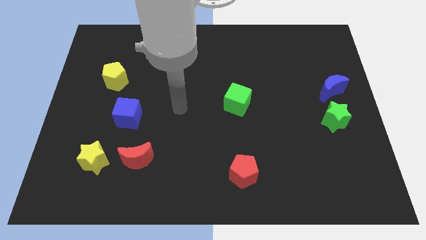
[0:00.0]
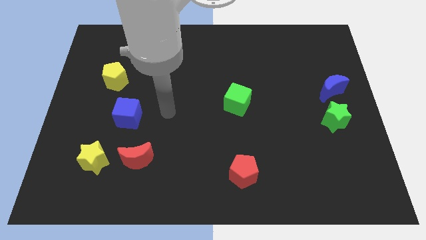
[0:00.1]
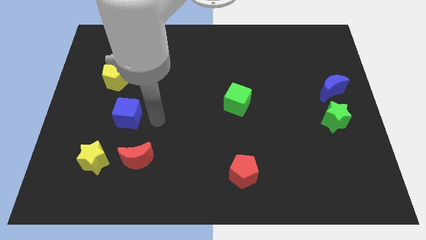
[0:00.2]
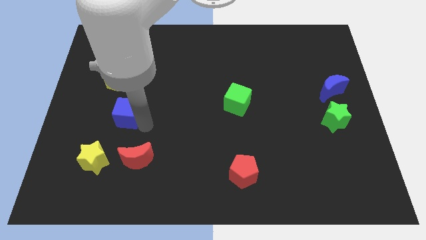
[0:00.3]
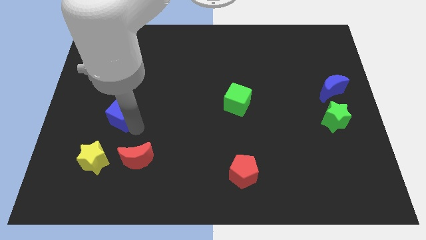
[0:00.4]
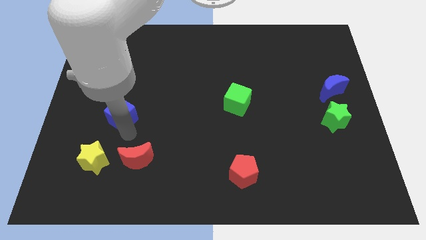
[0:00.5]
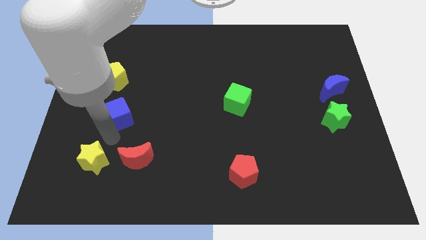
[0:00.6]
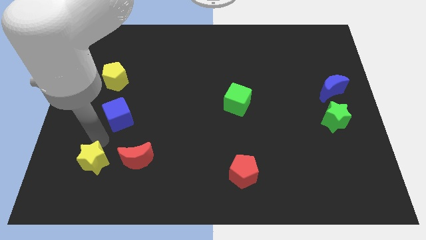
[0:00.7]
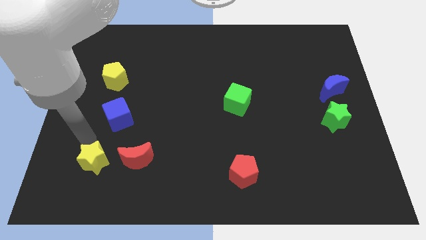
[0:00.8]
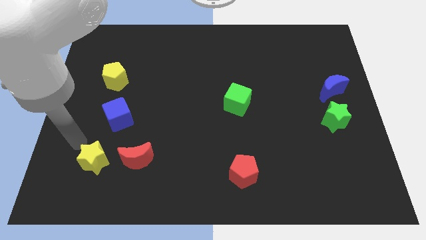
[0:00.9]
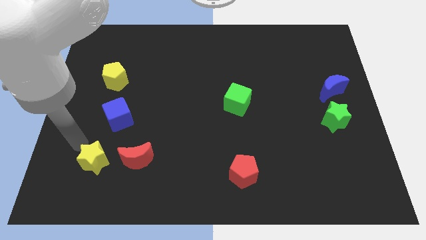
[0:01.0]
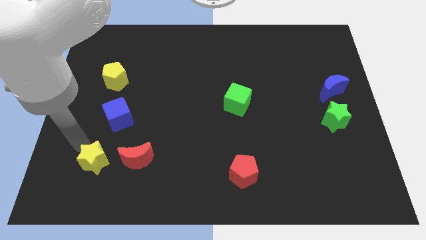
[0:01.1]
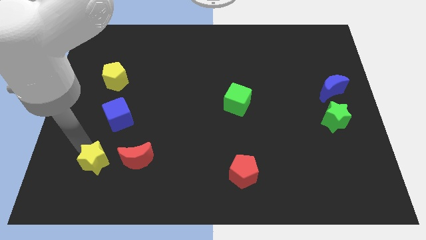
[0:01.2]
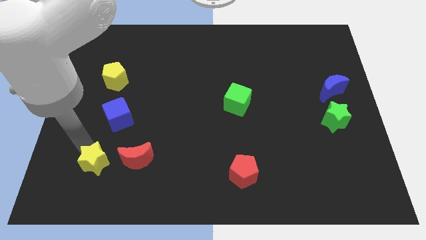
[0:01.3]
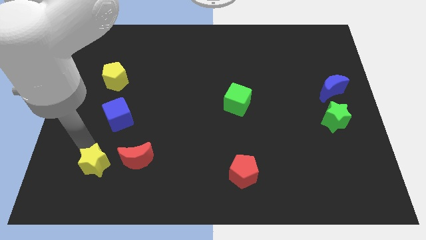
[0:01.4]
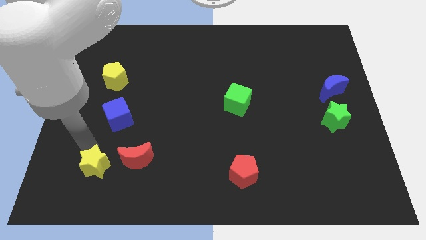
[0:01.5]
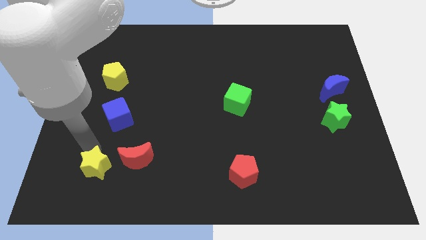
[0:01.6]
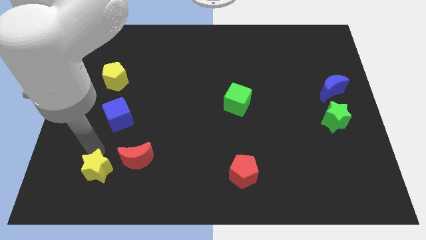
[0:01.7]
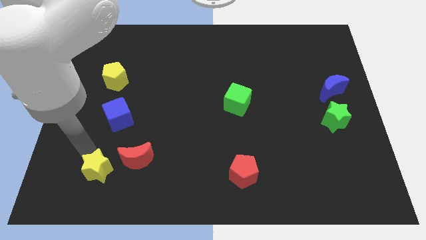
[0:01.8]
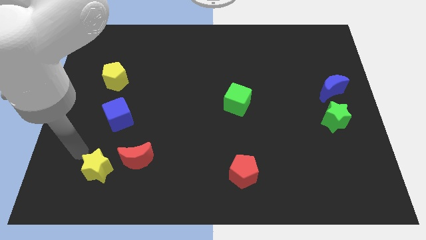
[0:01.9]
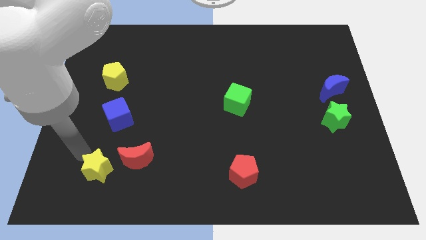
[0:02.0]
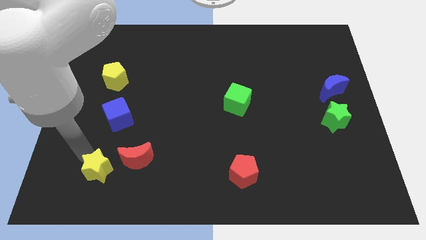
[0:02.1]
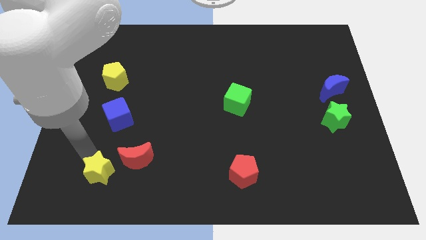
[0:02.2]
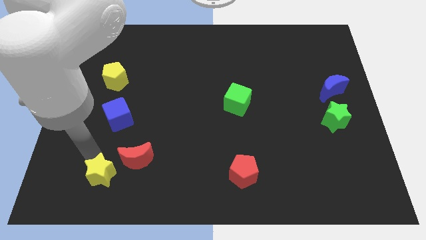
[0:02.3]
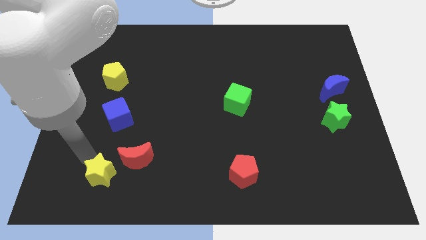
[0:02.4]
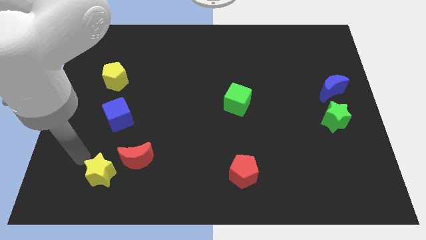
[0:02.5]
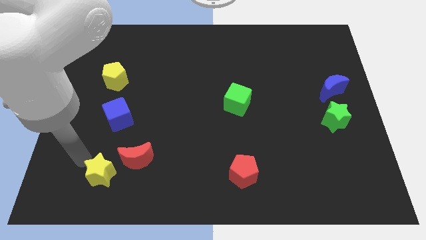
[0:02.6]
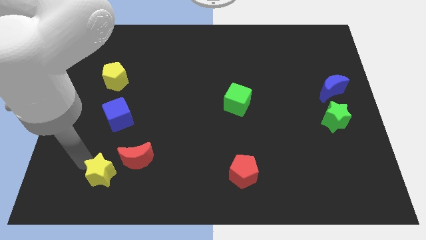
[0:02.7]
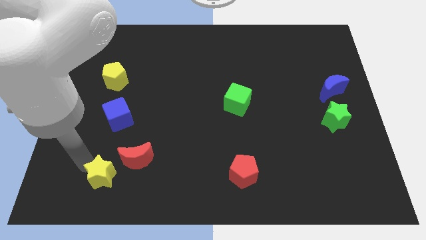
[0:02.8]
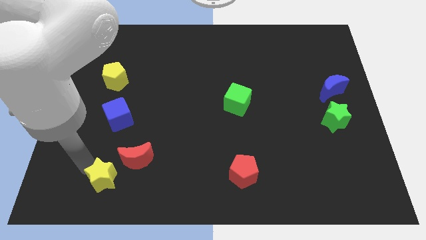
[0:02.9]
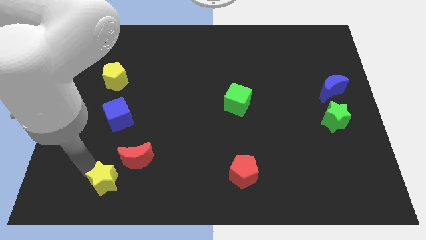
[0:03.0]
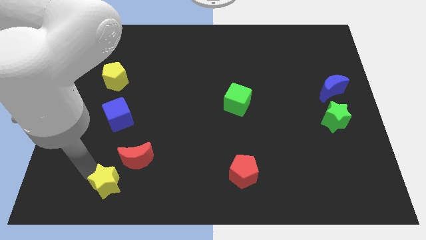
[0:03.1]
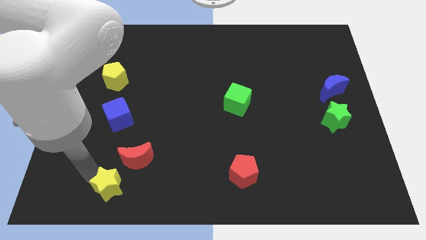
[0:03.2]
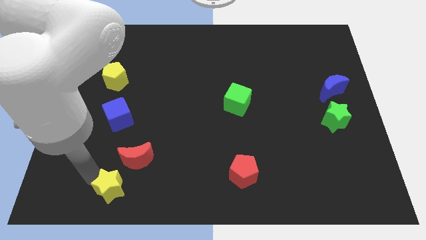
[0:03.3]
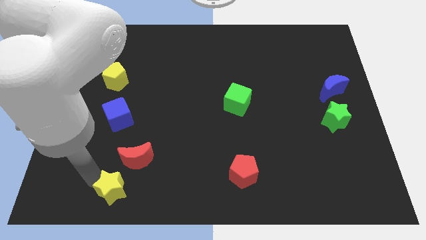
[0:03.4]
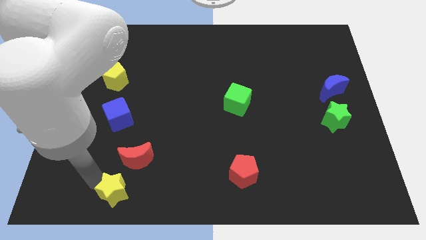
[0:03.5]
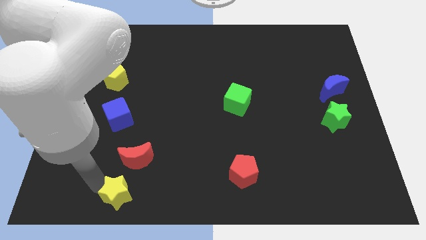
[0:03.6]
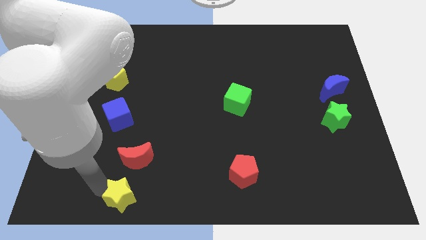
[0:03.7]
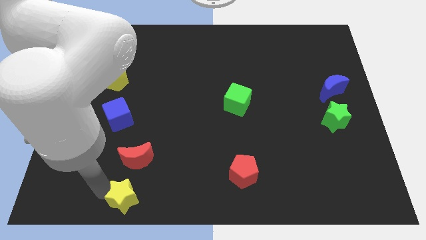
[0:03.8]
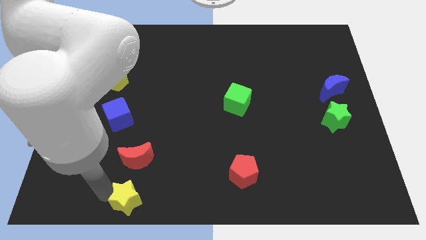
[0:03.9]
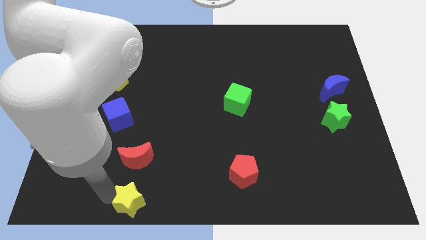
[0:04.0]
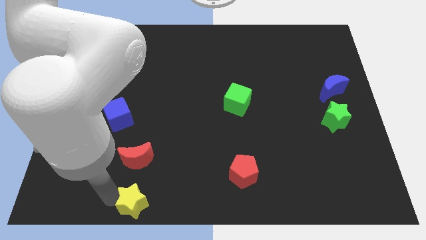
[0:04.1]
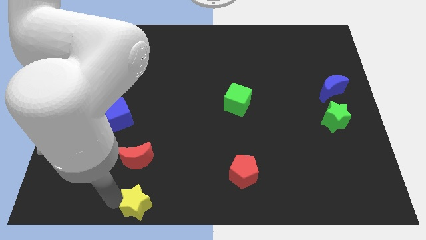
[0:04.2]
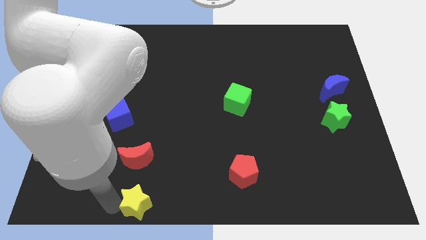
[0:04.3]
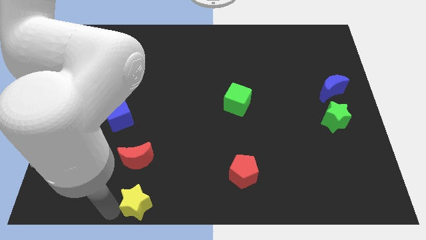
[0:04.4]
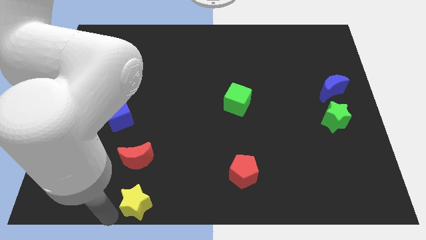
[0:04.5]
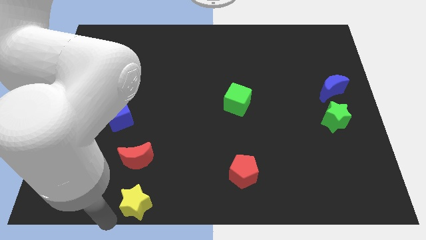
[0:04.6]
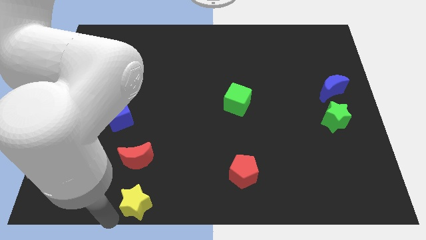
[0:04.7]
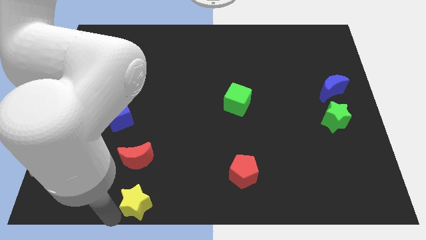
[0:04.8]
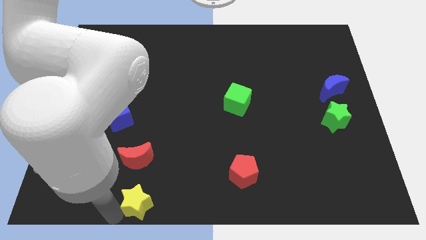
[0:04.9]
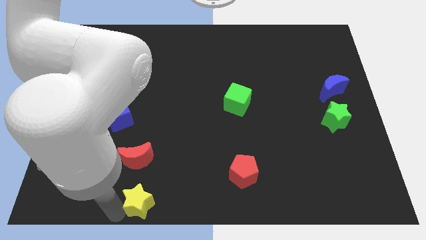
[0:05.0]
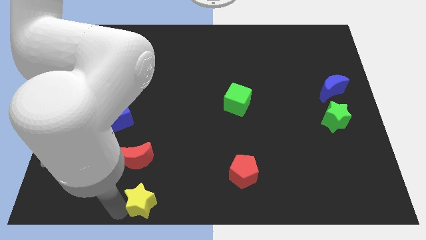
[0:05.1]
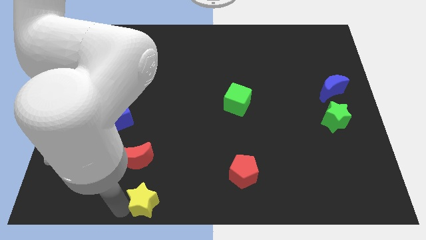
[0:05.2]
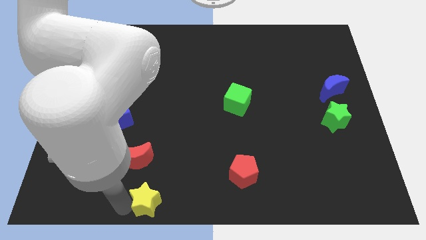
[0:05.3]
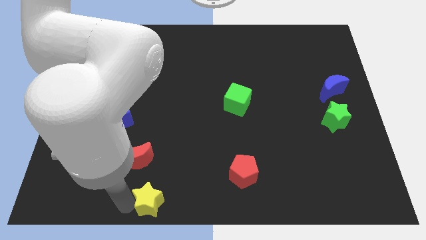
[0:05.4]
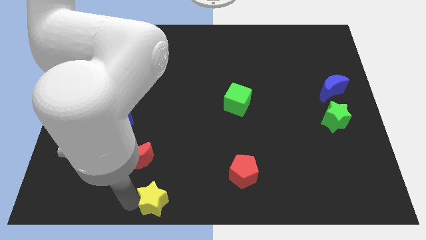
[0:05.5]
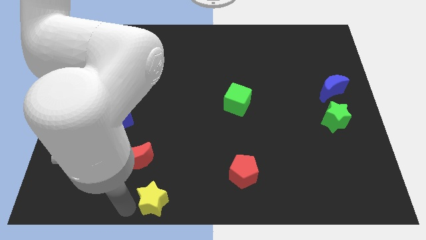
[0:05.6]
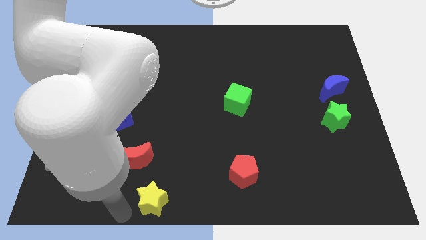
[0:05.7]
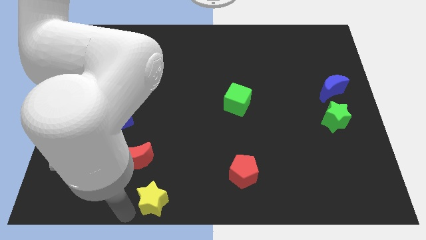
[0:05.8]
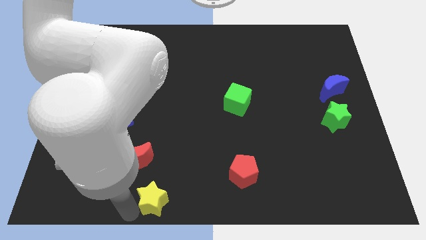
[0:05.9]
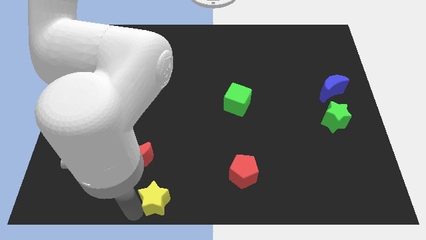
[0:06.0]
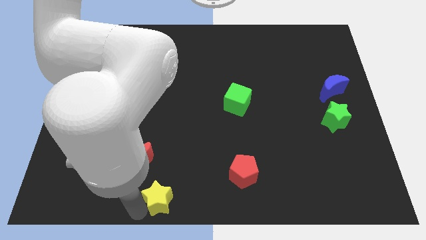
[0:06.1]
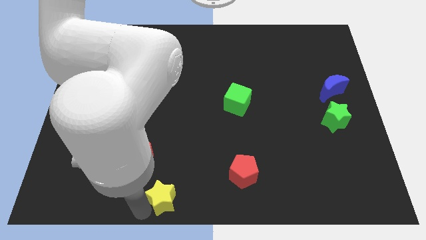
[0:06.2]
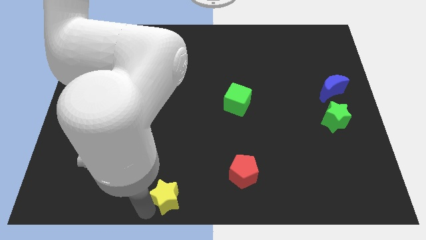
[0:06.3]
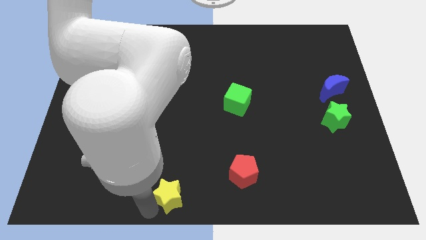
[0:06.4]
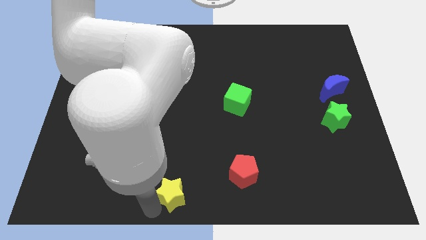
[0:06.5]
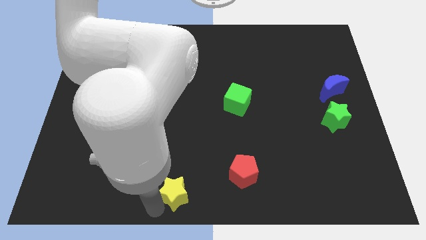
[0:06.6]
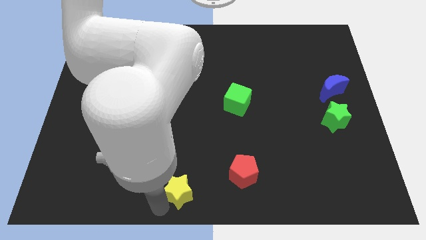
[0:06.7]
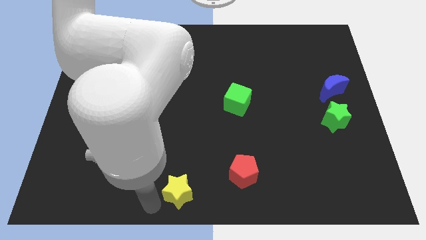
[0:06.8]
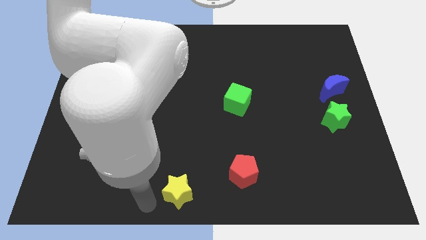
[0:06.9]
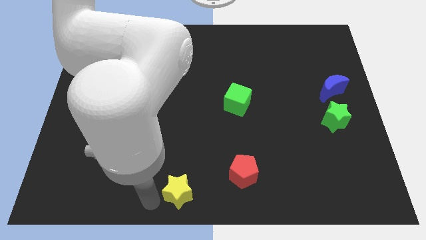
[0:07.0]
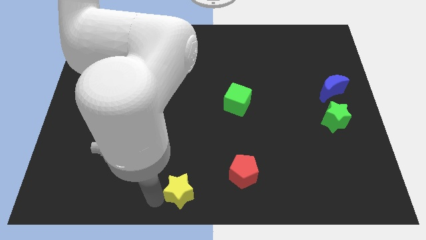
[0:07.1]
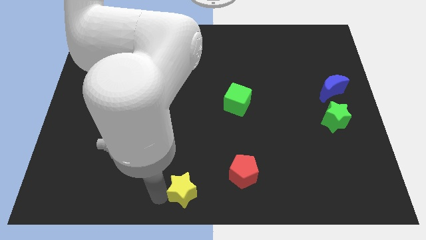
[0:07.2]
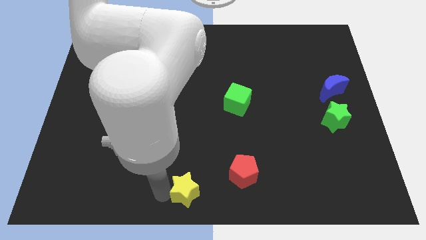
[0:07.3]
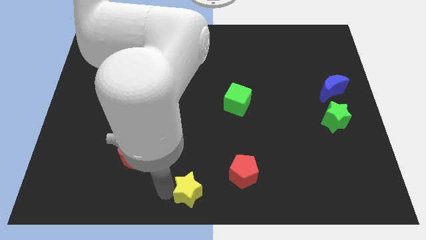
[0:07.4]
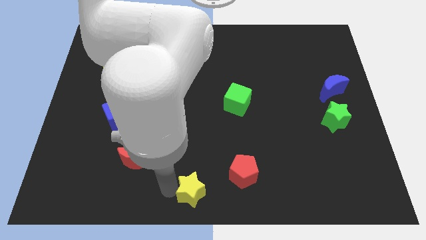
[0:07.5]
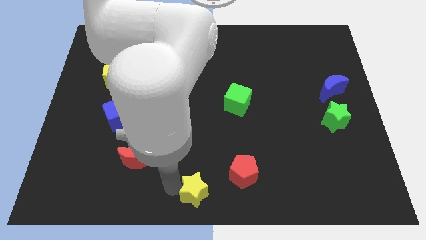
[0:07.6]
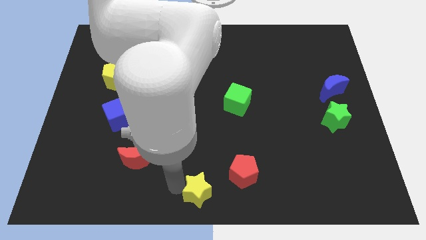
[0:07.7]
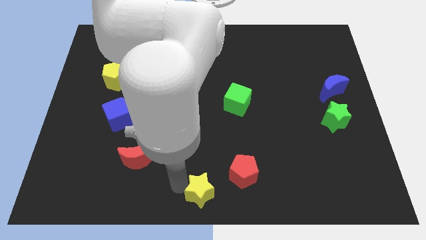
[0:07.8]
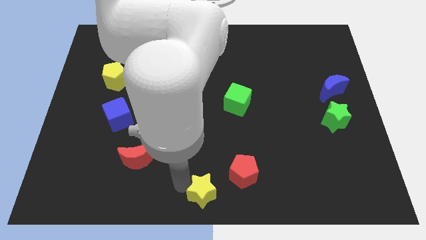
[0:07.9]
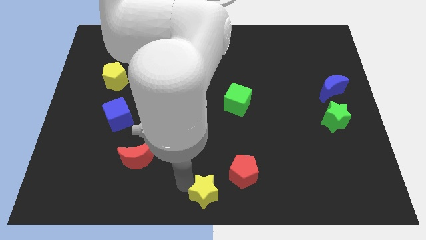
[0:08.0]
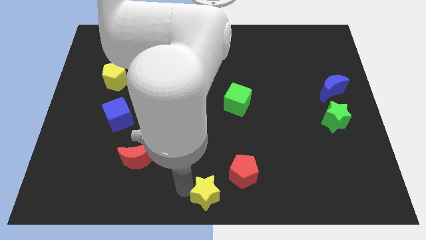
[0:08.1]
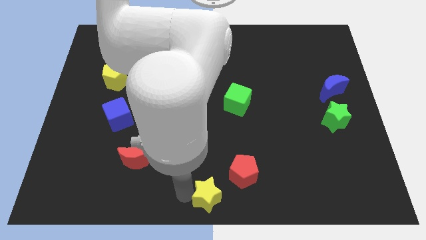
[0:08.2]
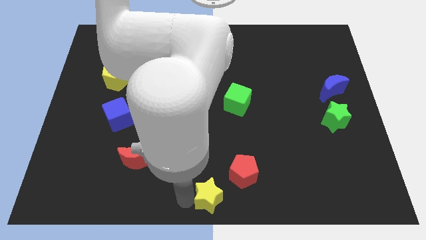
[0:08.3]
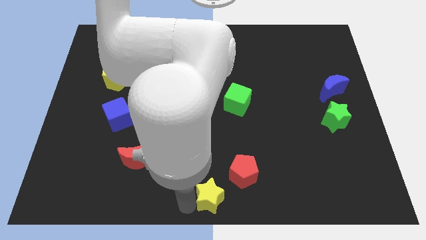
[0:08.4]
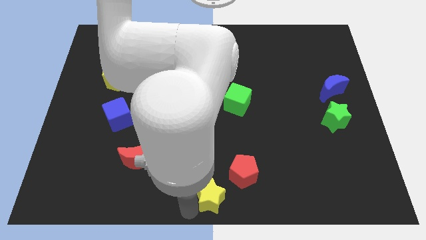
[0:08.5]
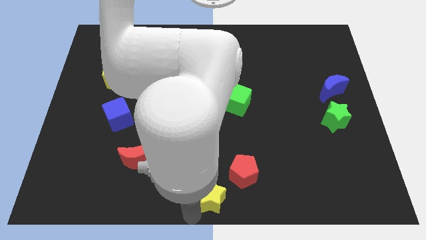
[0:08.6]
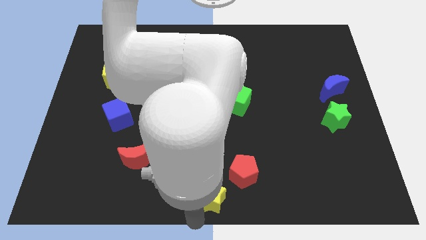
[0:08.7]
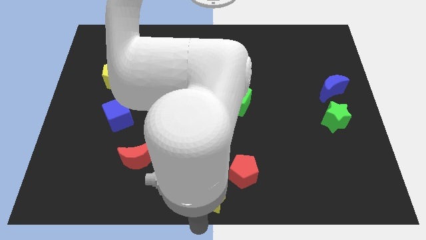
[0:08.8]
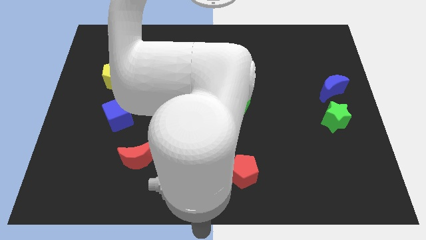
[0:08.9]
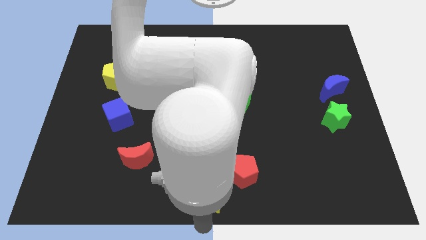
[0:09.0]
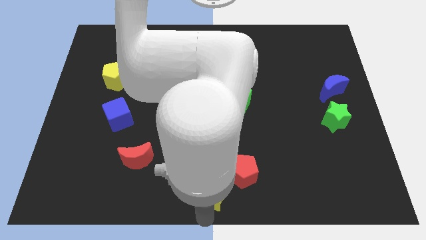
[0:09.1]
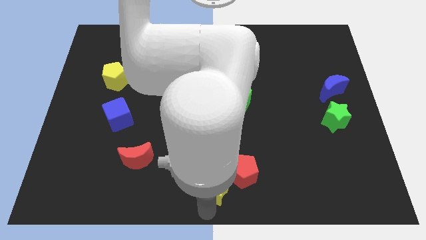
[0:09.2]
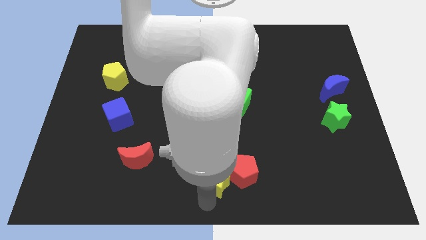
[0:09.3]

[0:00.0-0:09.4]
push the yellow star next to the red pentagon
